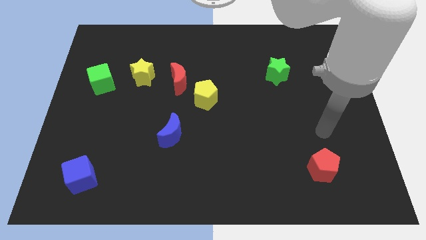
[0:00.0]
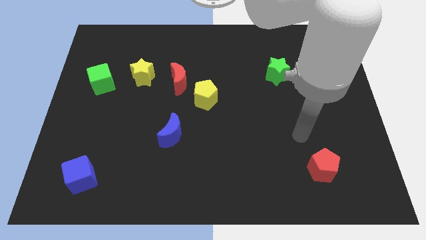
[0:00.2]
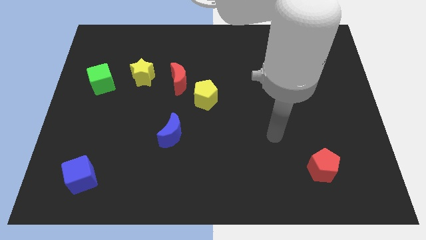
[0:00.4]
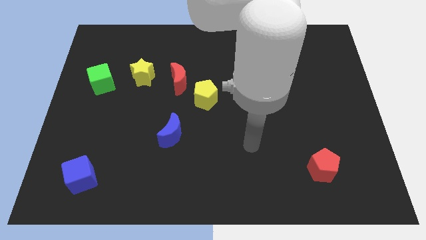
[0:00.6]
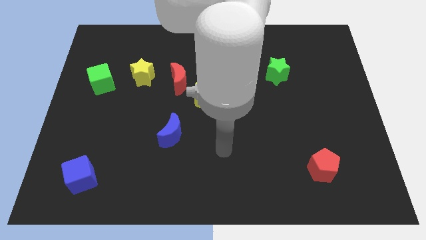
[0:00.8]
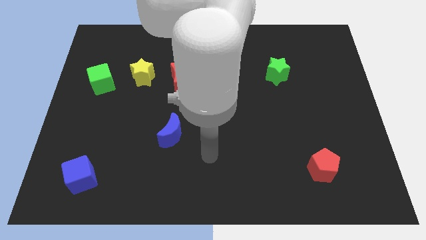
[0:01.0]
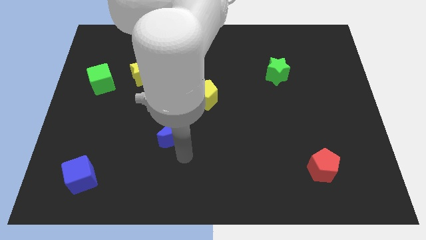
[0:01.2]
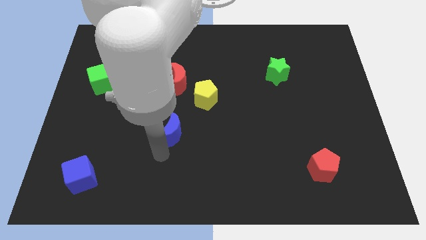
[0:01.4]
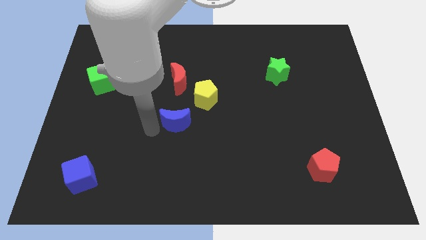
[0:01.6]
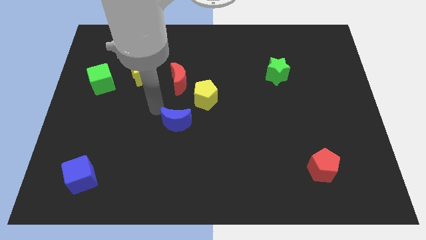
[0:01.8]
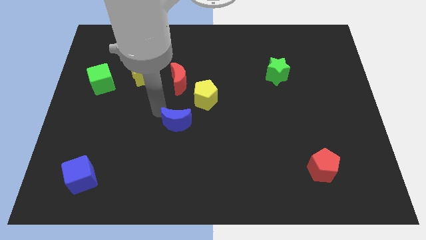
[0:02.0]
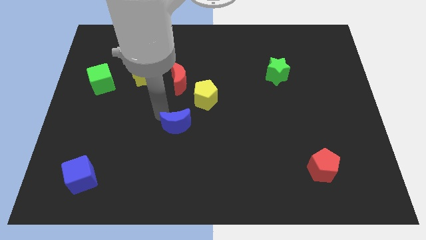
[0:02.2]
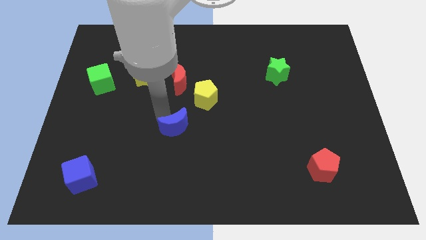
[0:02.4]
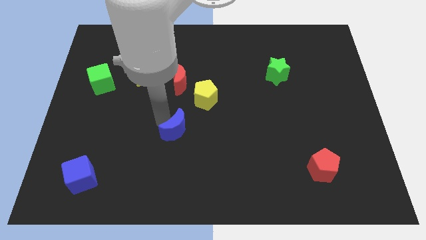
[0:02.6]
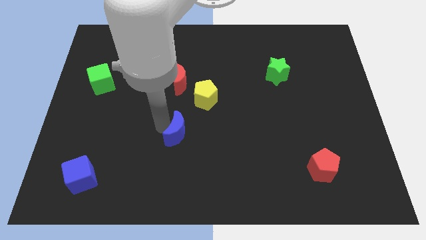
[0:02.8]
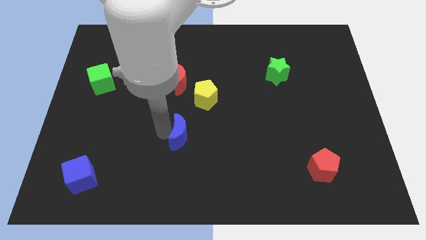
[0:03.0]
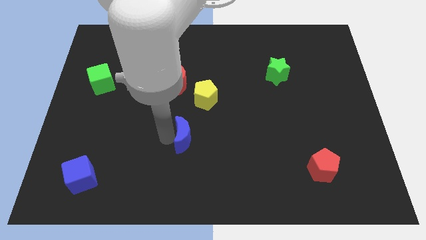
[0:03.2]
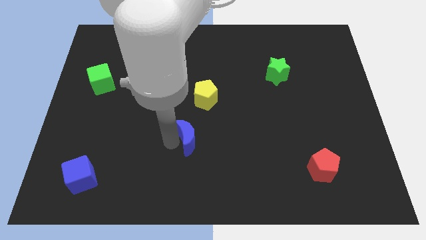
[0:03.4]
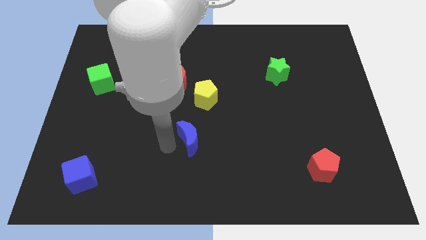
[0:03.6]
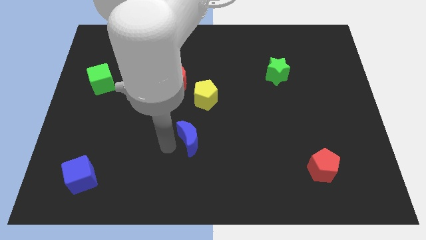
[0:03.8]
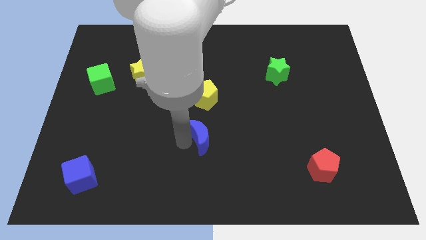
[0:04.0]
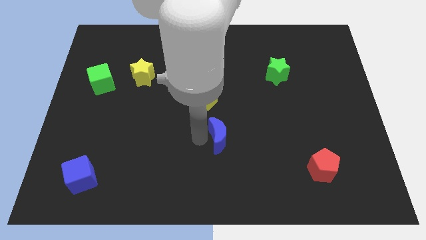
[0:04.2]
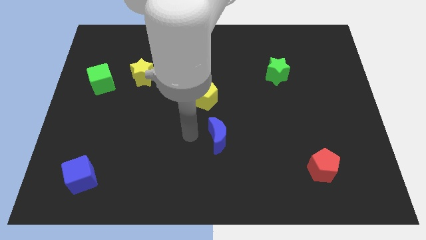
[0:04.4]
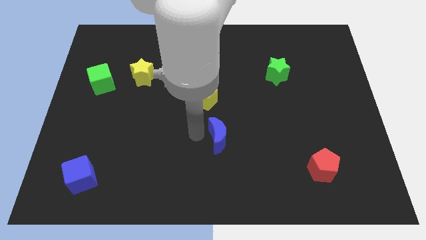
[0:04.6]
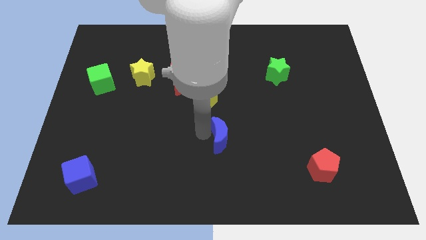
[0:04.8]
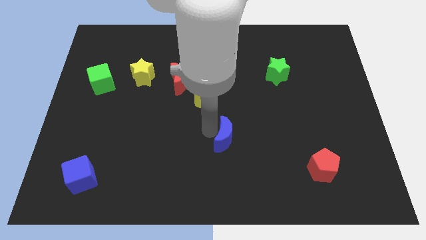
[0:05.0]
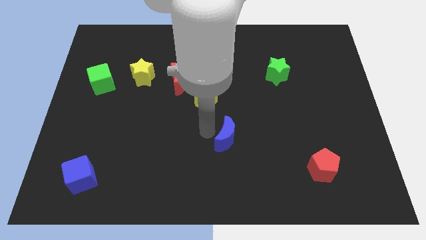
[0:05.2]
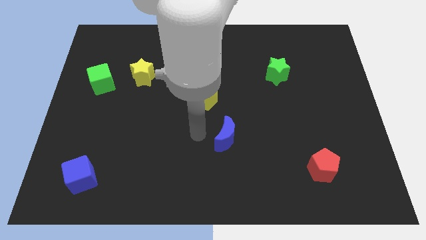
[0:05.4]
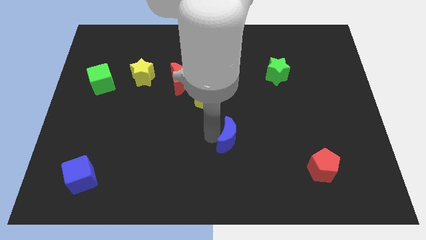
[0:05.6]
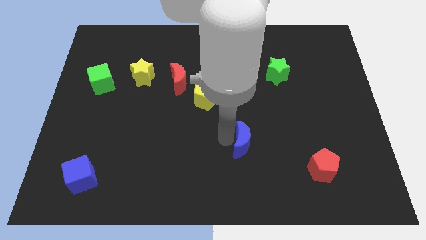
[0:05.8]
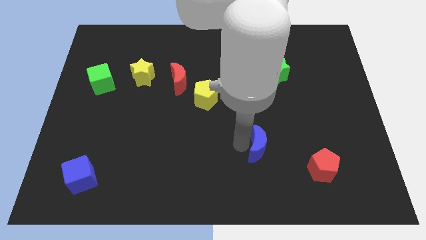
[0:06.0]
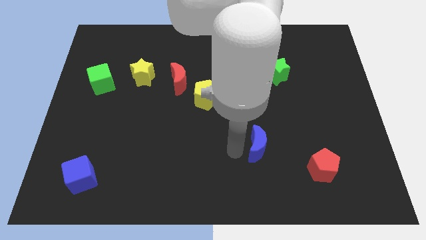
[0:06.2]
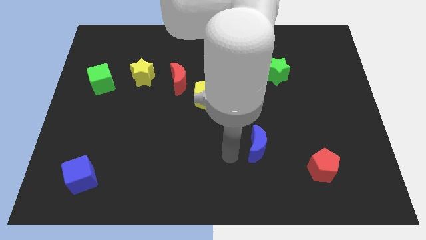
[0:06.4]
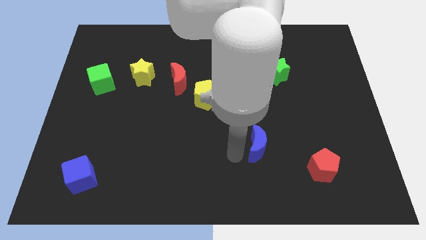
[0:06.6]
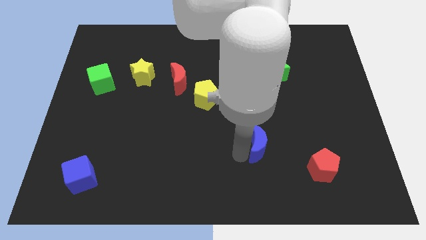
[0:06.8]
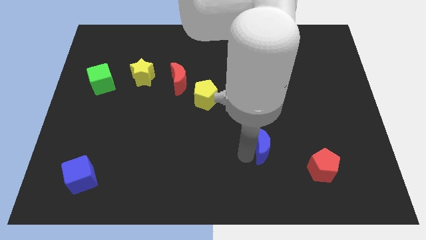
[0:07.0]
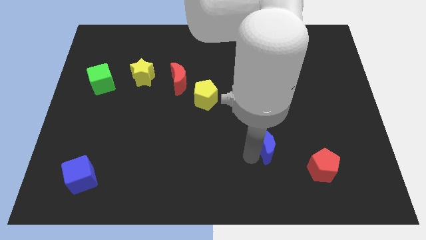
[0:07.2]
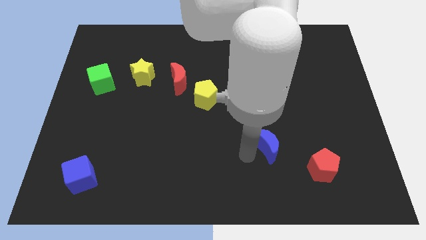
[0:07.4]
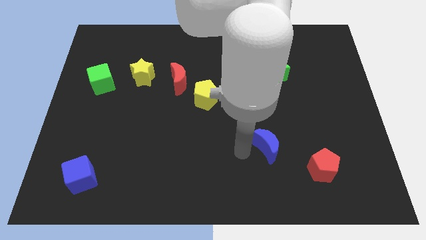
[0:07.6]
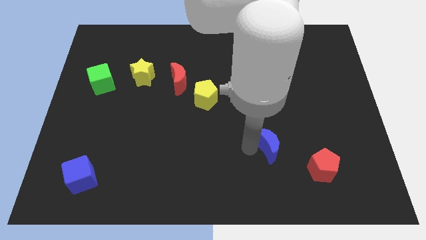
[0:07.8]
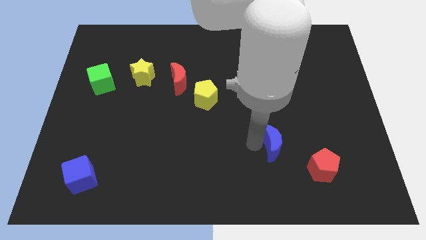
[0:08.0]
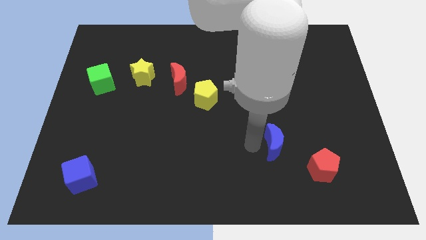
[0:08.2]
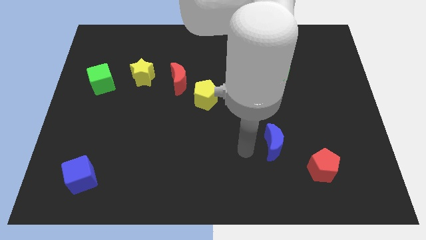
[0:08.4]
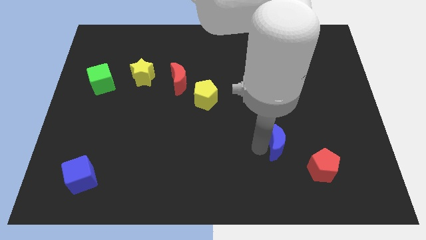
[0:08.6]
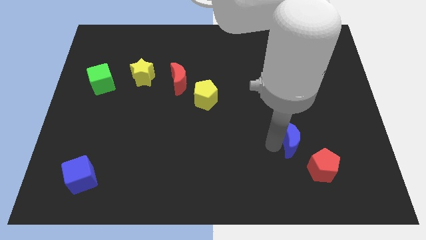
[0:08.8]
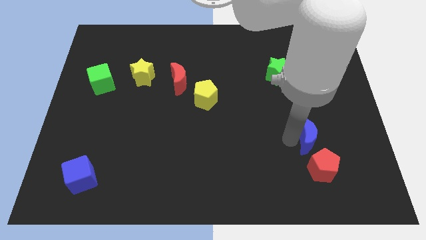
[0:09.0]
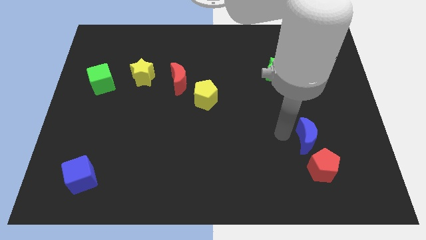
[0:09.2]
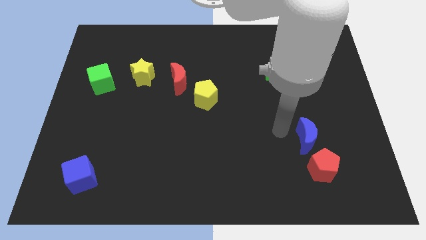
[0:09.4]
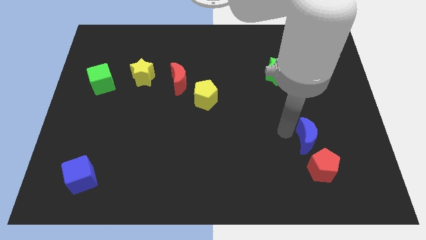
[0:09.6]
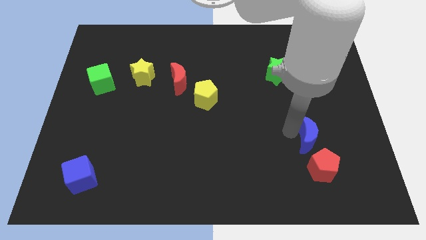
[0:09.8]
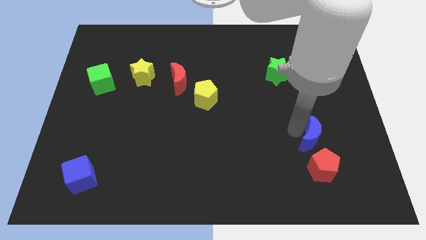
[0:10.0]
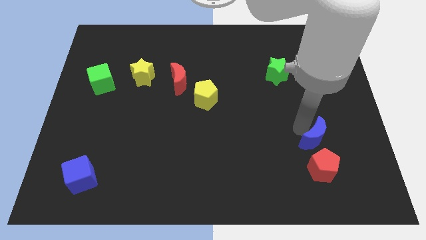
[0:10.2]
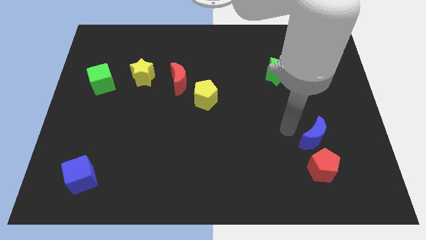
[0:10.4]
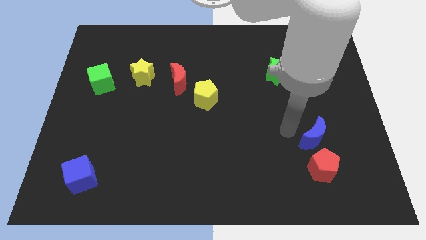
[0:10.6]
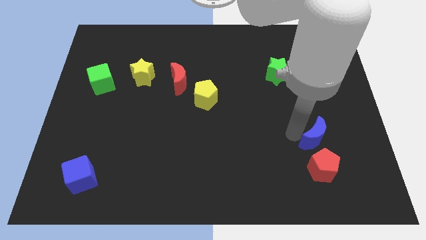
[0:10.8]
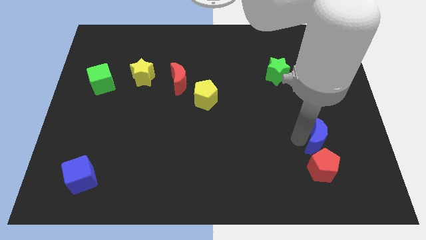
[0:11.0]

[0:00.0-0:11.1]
move the blue moon to the top right of the red pentagon

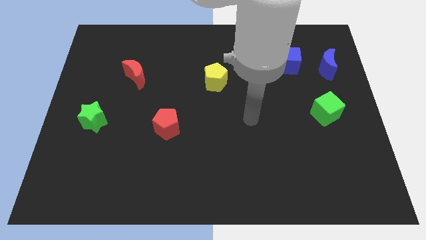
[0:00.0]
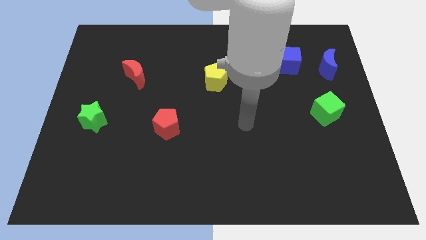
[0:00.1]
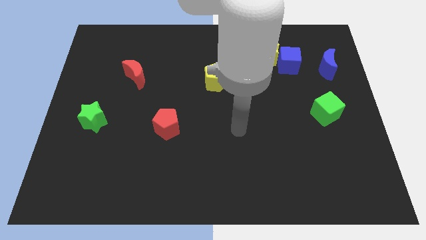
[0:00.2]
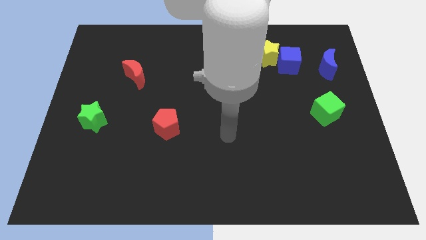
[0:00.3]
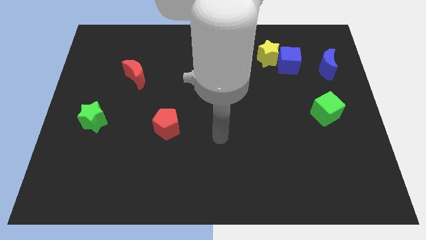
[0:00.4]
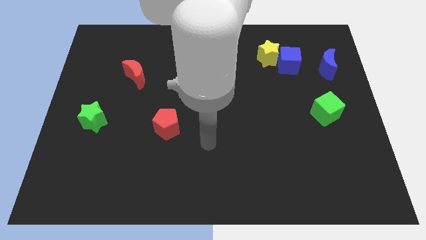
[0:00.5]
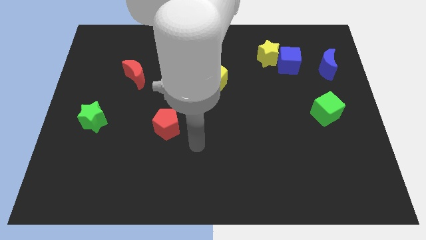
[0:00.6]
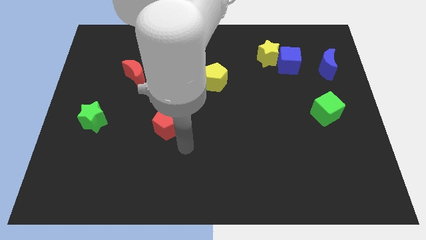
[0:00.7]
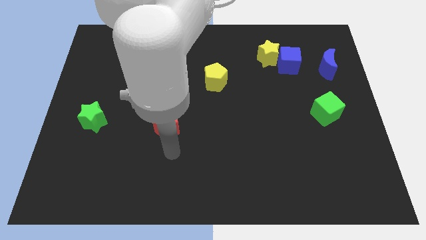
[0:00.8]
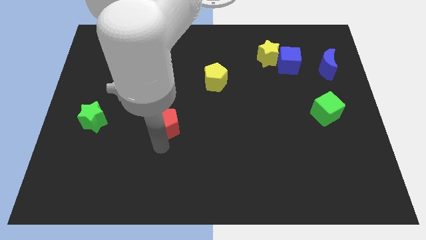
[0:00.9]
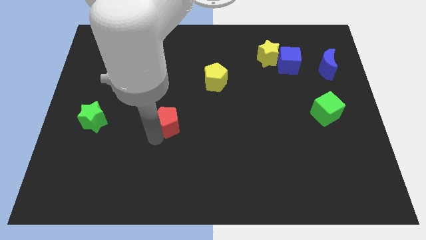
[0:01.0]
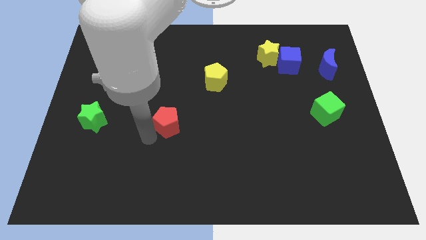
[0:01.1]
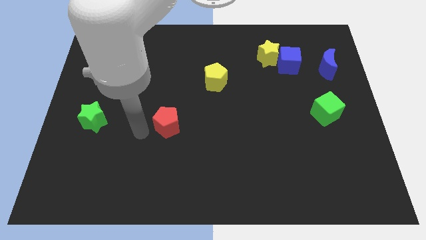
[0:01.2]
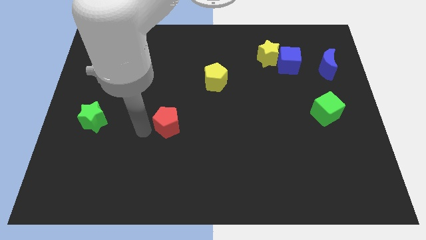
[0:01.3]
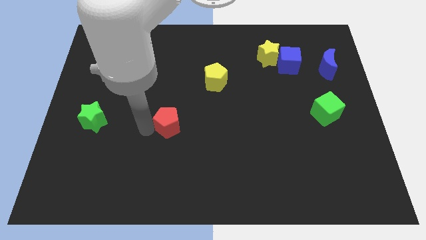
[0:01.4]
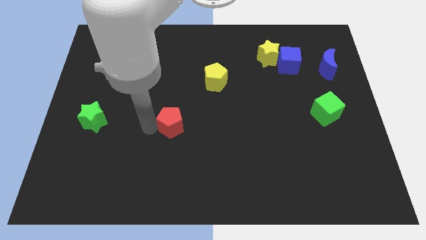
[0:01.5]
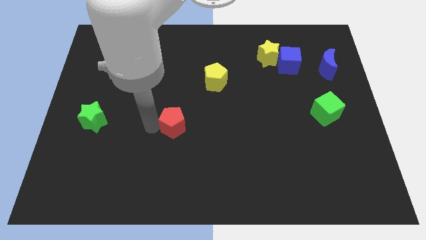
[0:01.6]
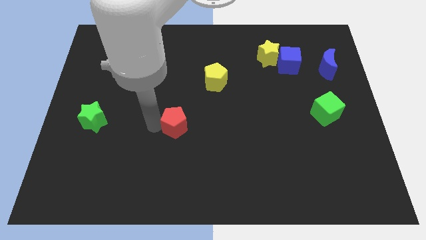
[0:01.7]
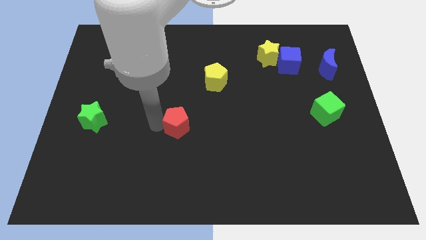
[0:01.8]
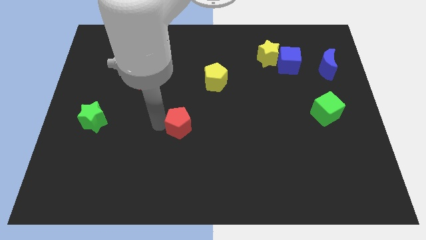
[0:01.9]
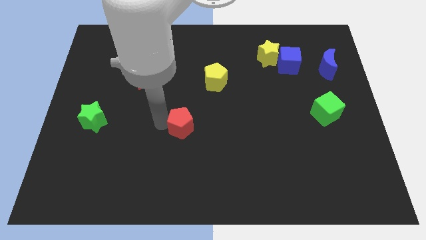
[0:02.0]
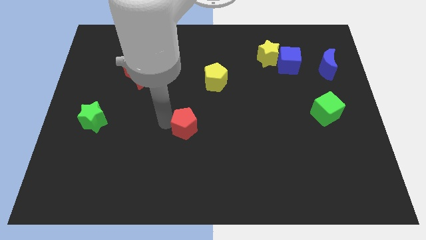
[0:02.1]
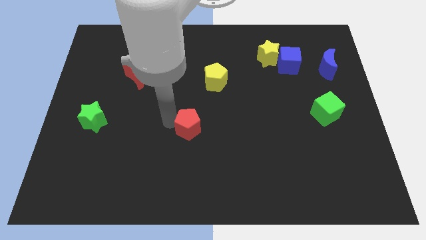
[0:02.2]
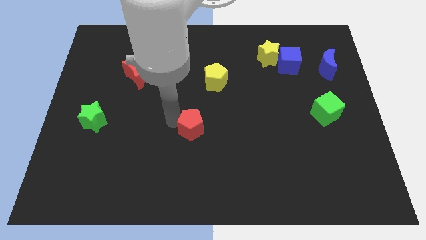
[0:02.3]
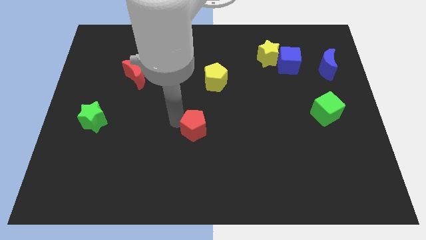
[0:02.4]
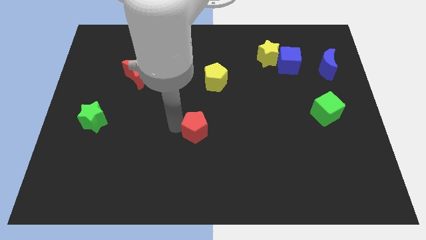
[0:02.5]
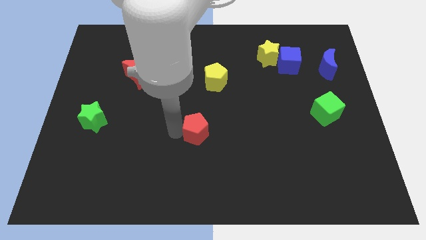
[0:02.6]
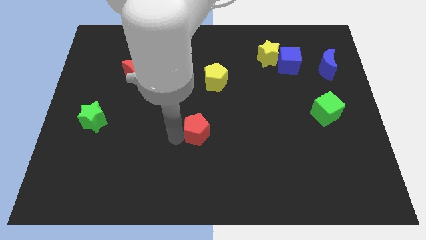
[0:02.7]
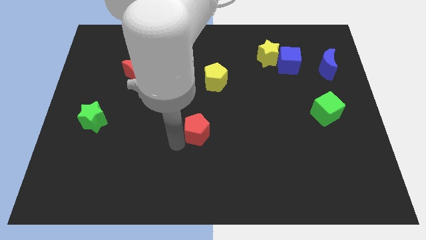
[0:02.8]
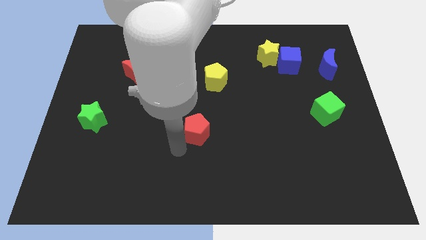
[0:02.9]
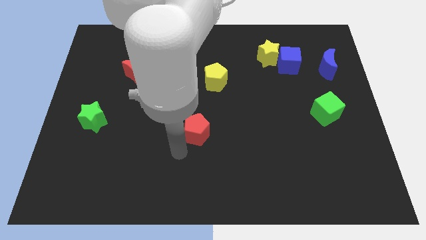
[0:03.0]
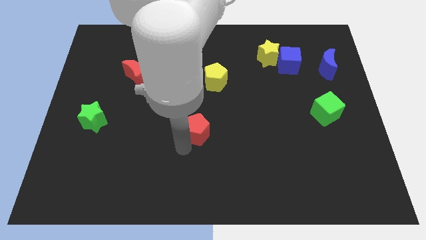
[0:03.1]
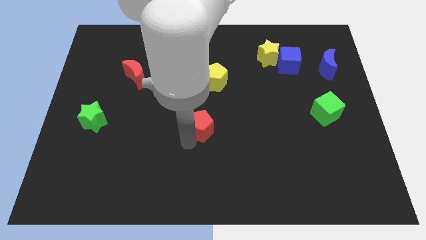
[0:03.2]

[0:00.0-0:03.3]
slide the red pentagon to the bottom of the yellow pentagon
